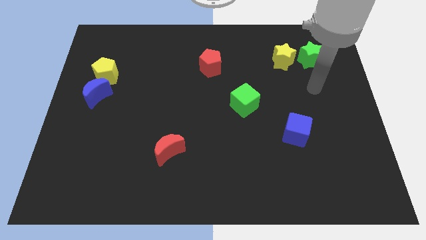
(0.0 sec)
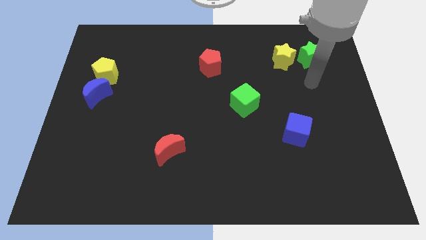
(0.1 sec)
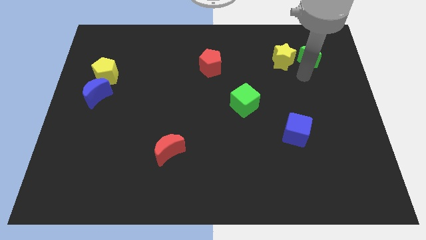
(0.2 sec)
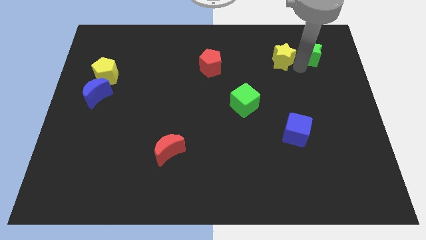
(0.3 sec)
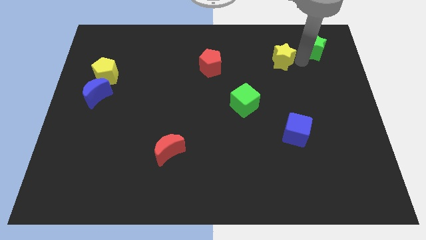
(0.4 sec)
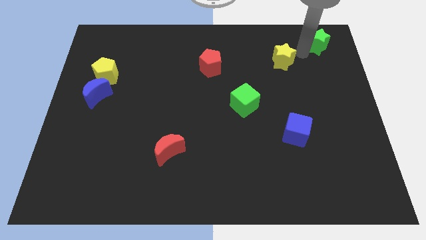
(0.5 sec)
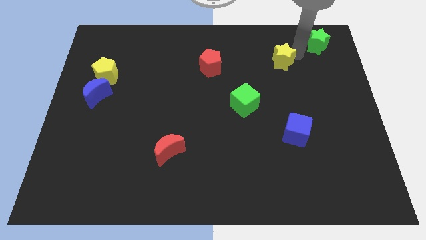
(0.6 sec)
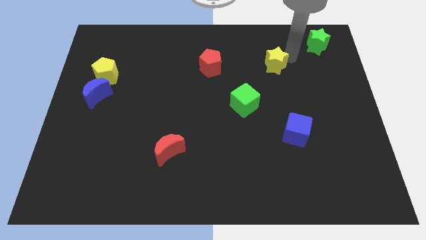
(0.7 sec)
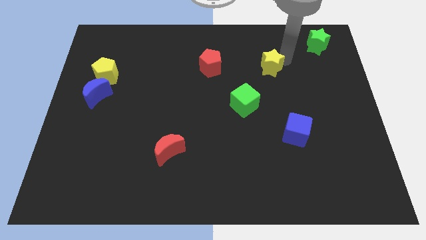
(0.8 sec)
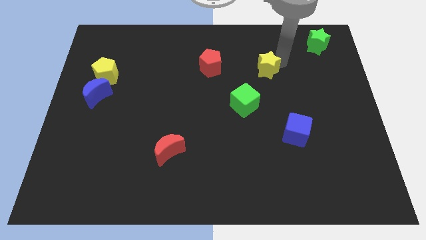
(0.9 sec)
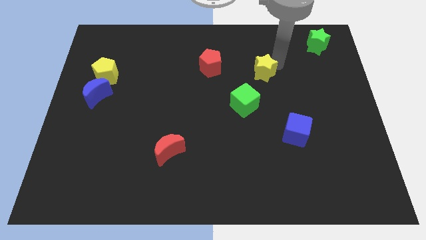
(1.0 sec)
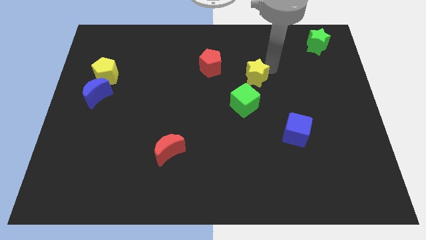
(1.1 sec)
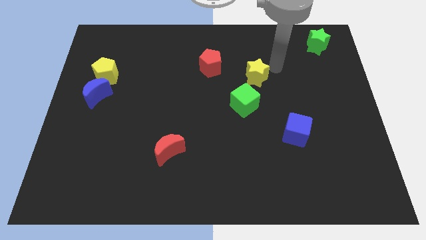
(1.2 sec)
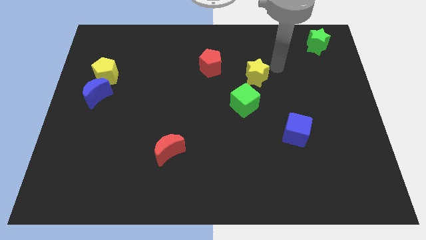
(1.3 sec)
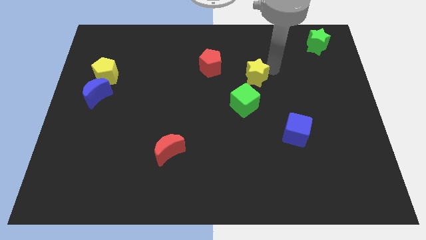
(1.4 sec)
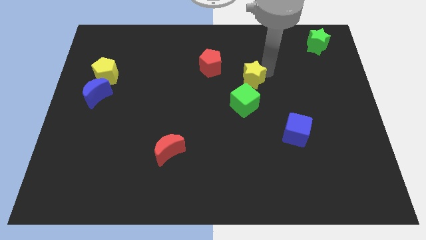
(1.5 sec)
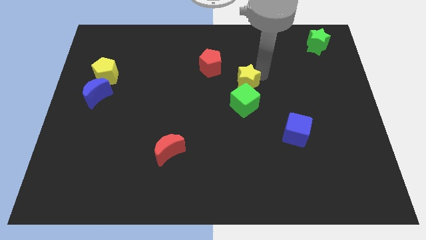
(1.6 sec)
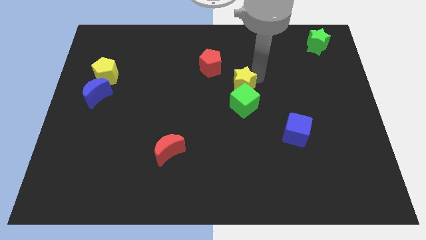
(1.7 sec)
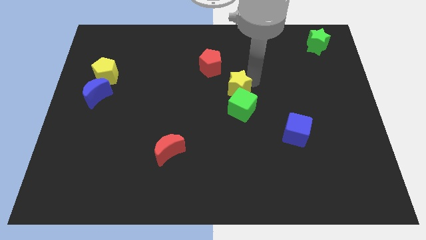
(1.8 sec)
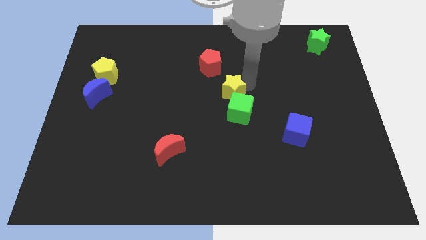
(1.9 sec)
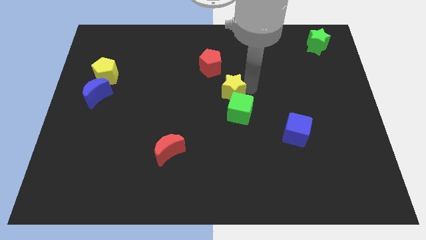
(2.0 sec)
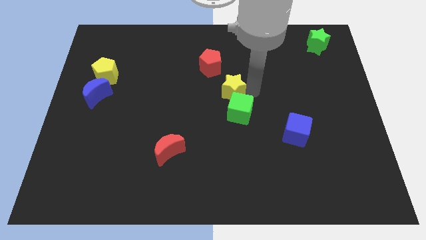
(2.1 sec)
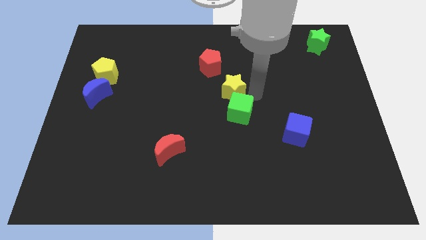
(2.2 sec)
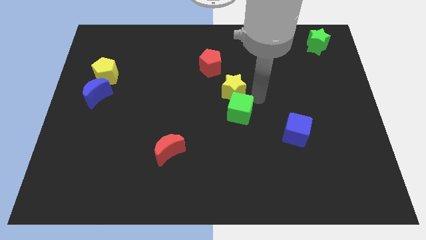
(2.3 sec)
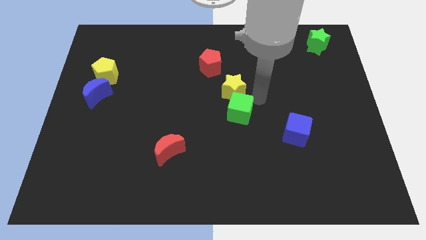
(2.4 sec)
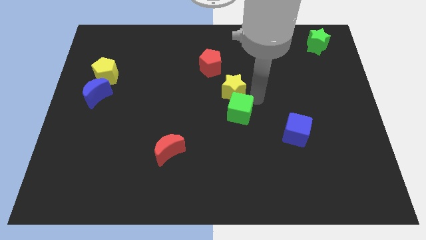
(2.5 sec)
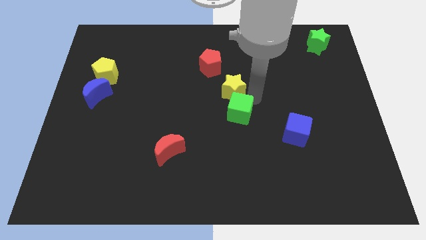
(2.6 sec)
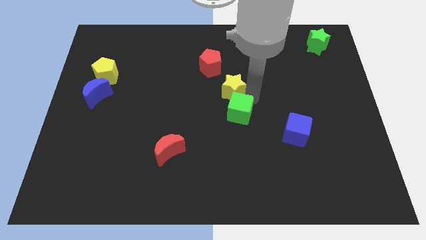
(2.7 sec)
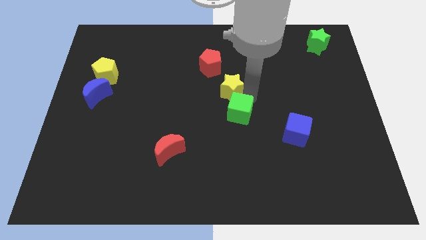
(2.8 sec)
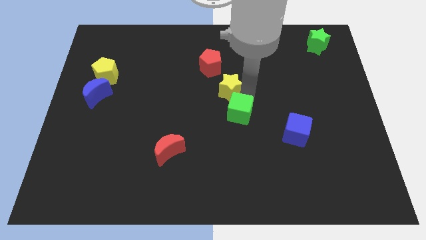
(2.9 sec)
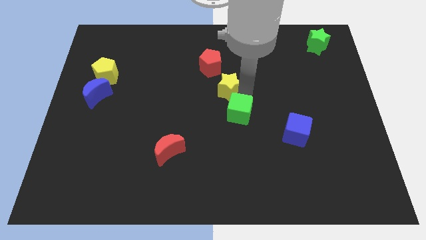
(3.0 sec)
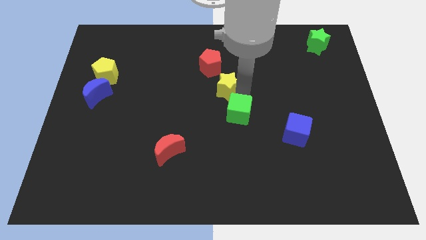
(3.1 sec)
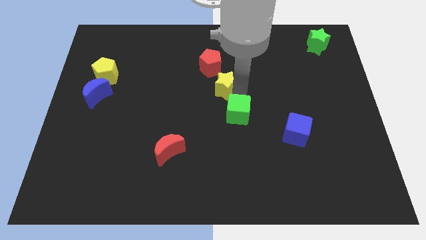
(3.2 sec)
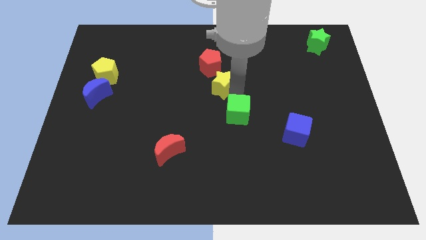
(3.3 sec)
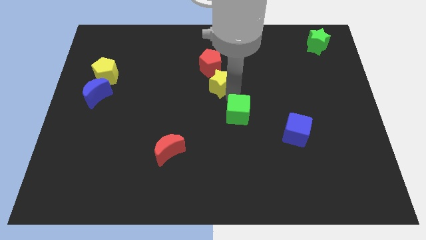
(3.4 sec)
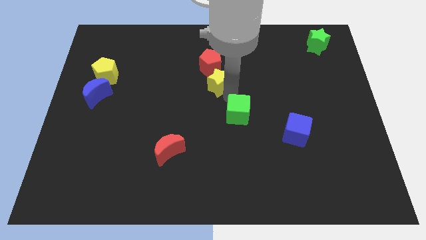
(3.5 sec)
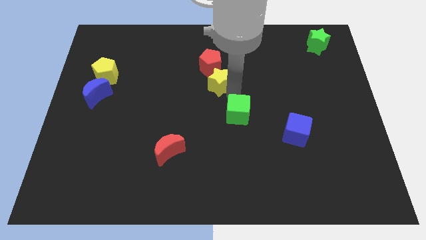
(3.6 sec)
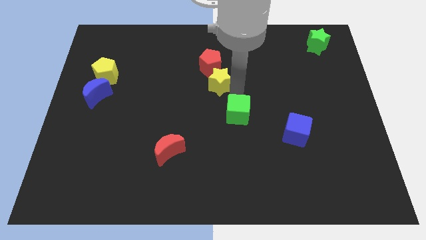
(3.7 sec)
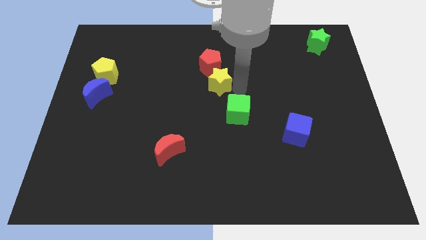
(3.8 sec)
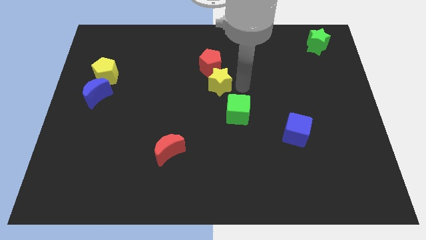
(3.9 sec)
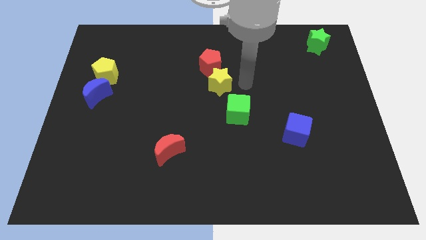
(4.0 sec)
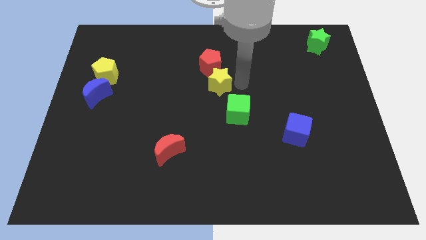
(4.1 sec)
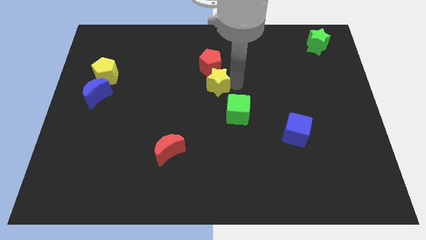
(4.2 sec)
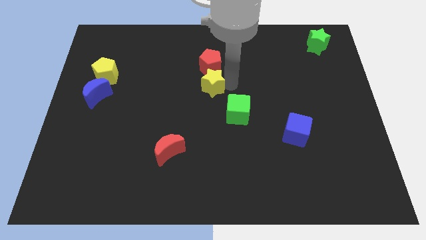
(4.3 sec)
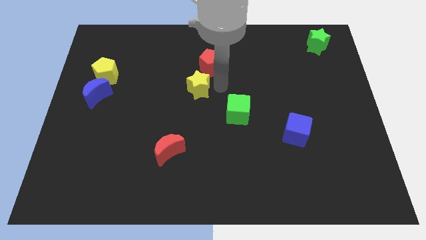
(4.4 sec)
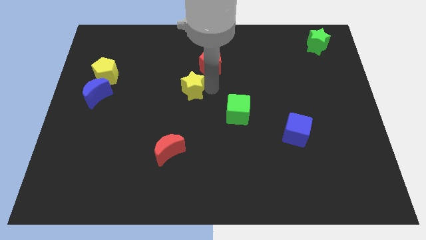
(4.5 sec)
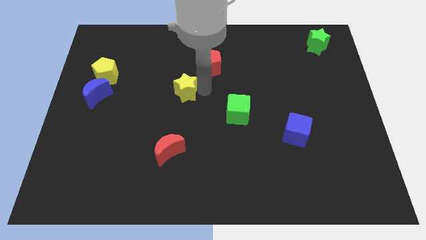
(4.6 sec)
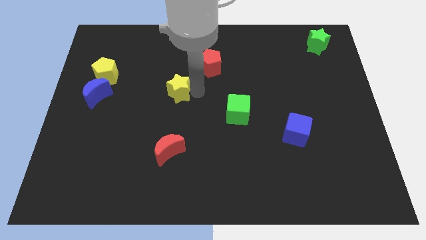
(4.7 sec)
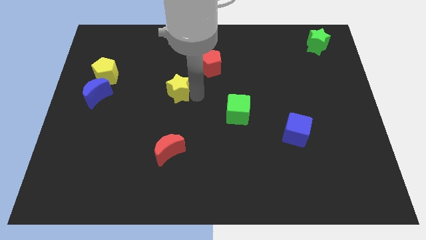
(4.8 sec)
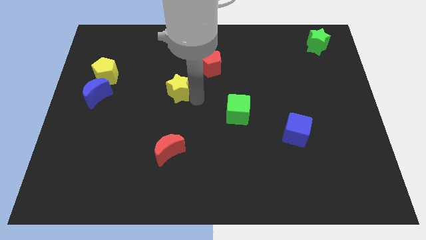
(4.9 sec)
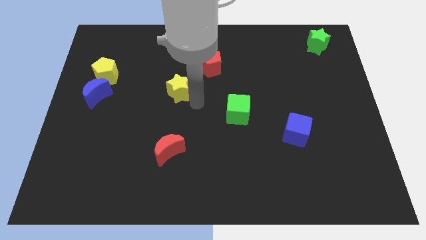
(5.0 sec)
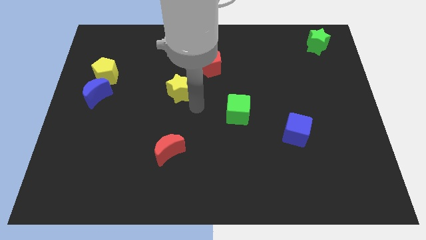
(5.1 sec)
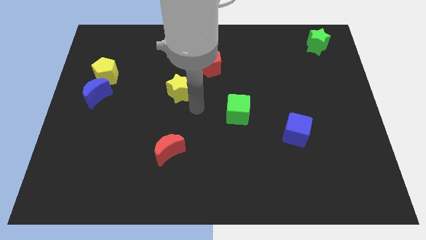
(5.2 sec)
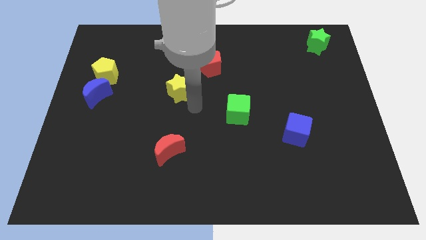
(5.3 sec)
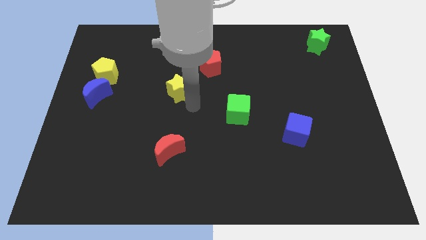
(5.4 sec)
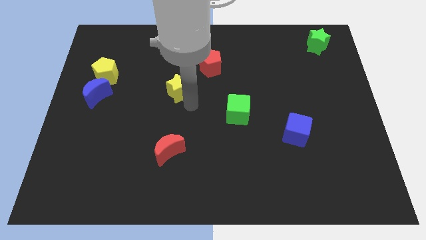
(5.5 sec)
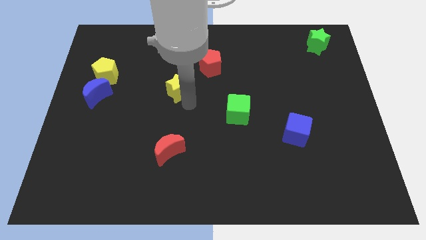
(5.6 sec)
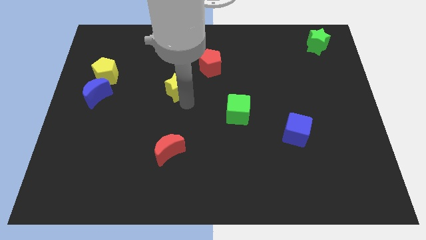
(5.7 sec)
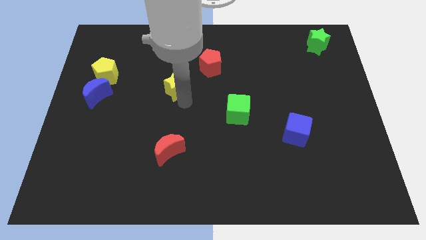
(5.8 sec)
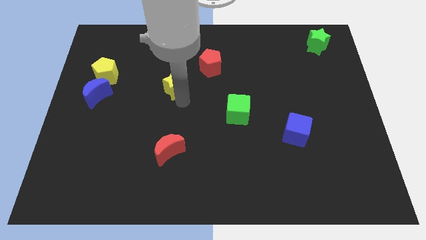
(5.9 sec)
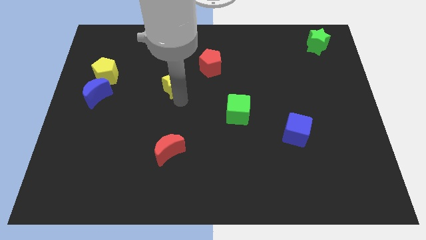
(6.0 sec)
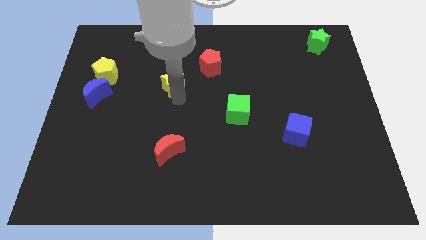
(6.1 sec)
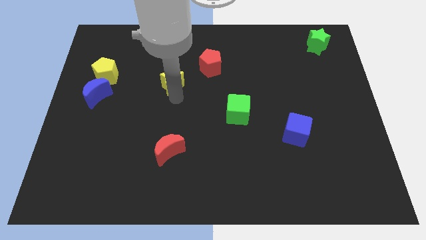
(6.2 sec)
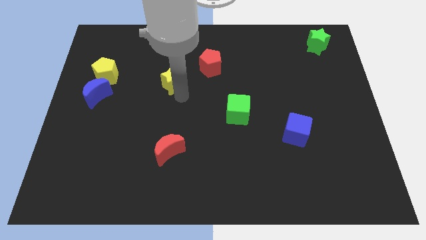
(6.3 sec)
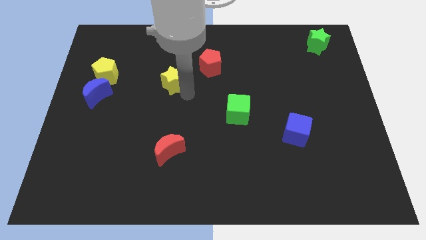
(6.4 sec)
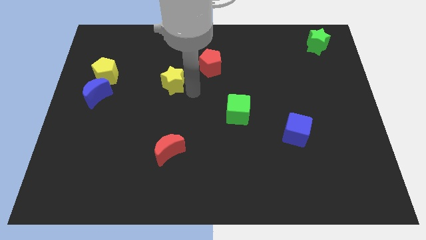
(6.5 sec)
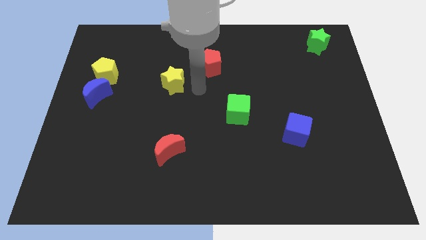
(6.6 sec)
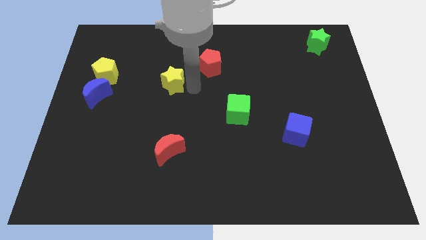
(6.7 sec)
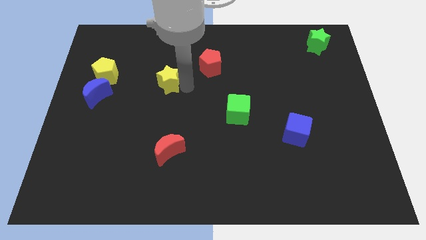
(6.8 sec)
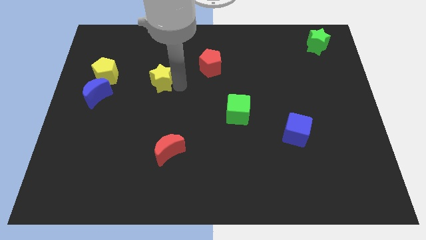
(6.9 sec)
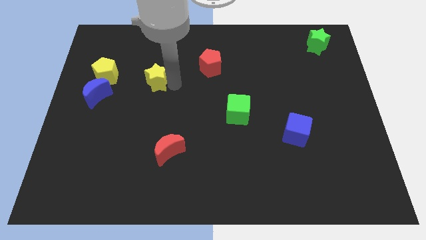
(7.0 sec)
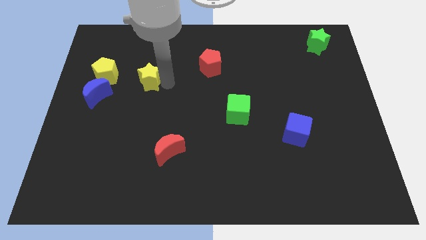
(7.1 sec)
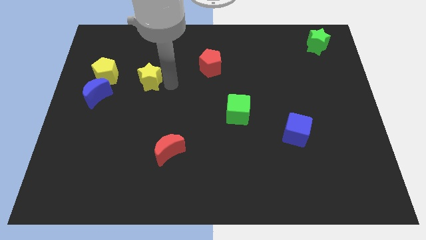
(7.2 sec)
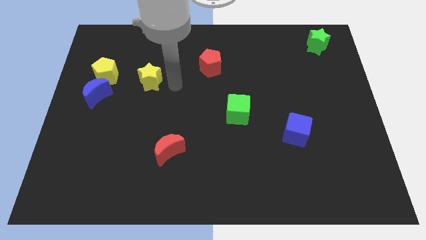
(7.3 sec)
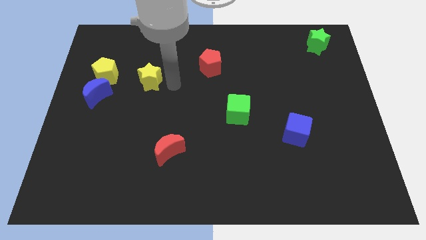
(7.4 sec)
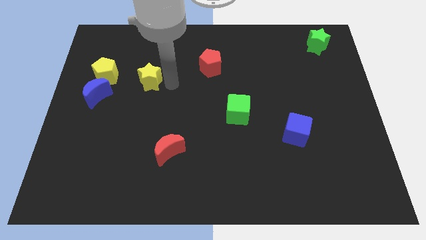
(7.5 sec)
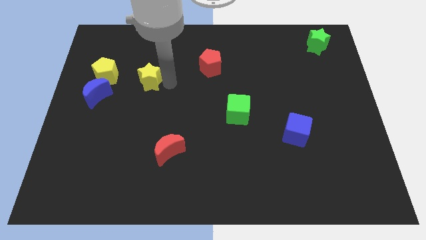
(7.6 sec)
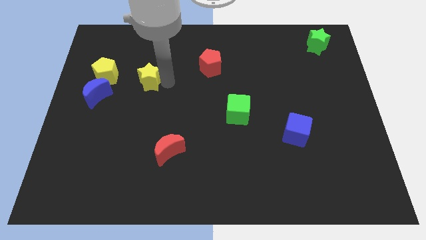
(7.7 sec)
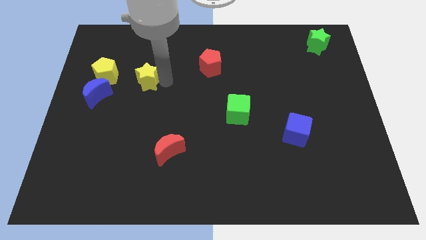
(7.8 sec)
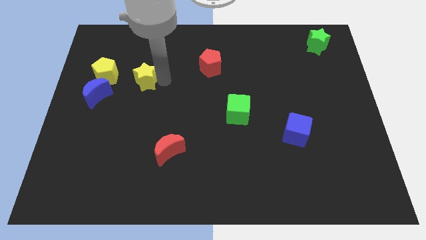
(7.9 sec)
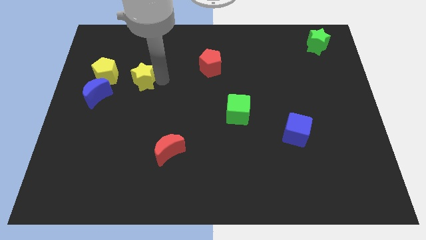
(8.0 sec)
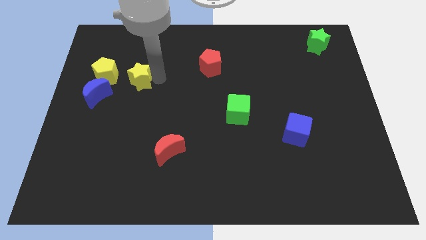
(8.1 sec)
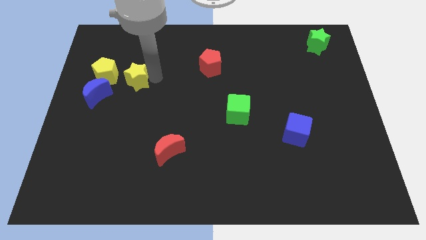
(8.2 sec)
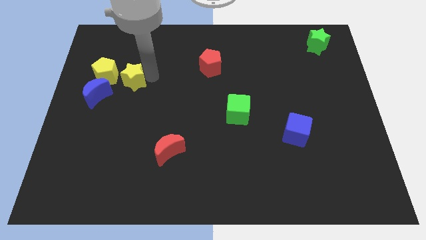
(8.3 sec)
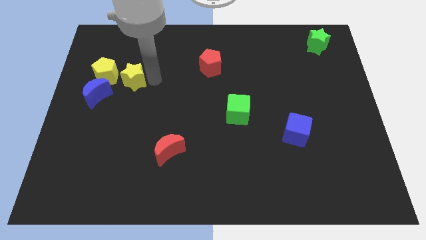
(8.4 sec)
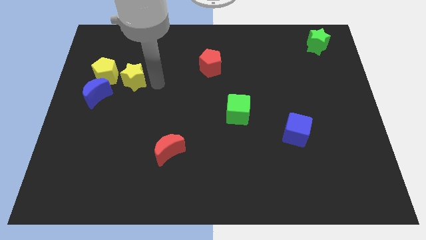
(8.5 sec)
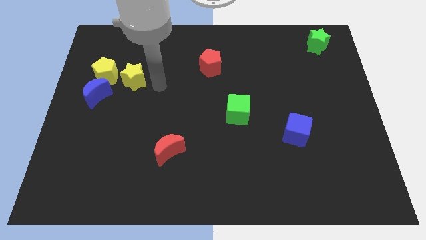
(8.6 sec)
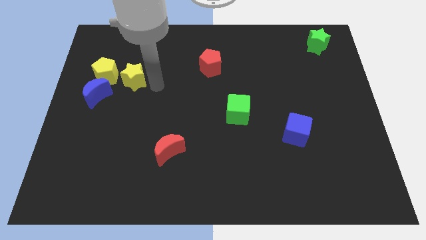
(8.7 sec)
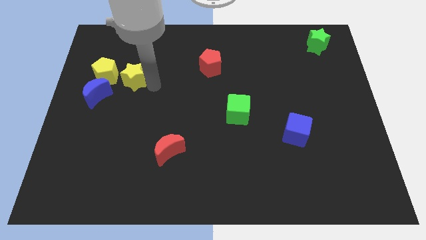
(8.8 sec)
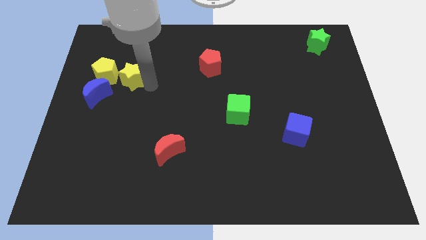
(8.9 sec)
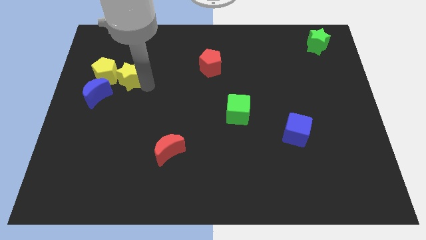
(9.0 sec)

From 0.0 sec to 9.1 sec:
move the yellow star close to the yellow pentagon
